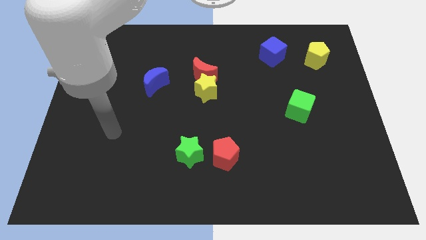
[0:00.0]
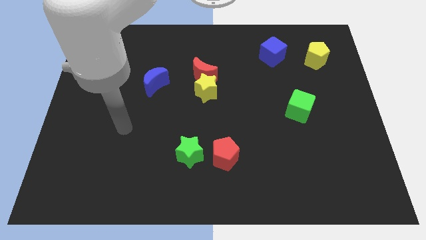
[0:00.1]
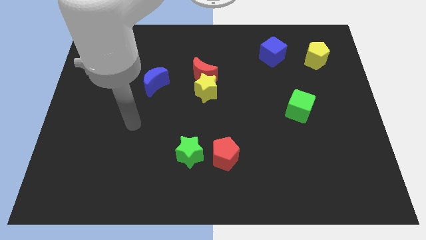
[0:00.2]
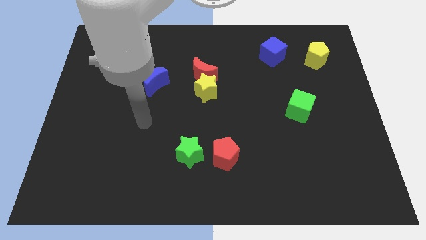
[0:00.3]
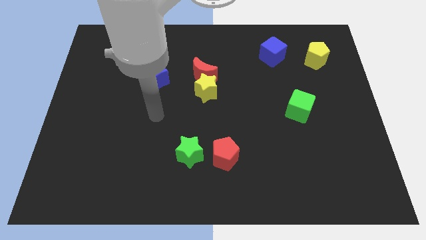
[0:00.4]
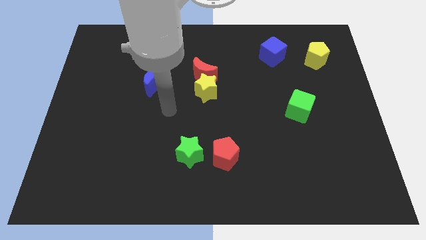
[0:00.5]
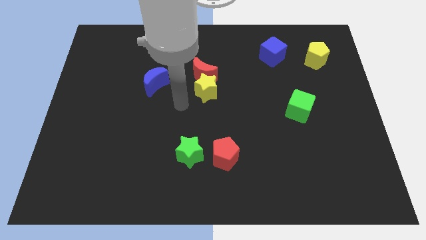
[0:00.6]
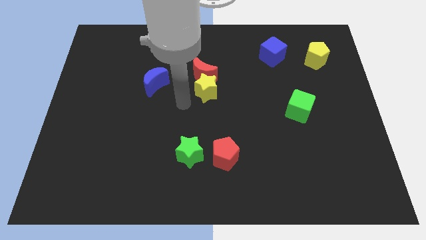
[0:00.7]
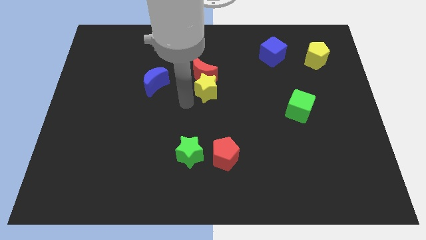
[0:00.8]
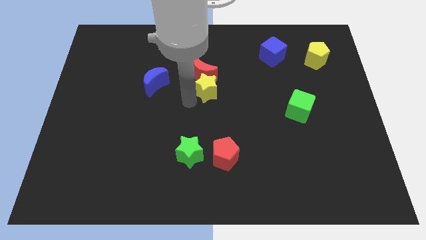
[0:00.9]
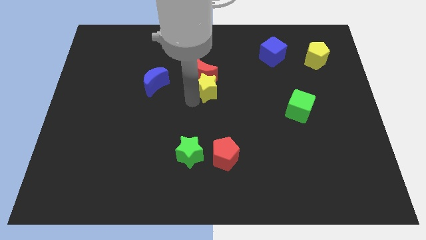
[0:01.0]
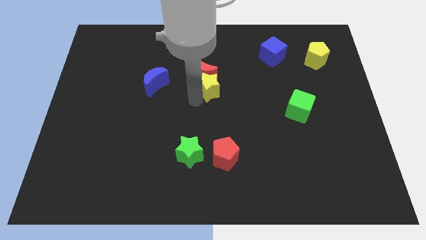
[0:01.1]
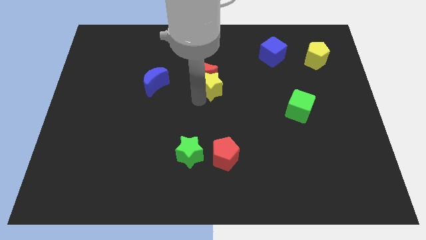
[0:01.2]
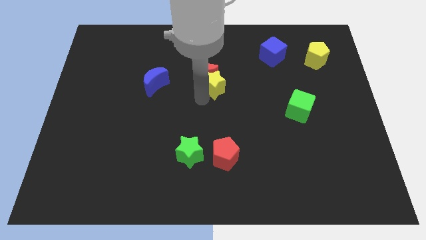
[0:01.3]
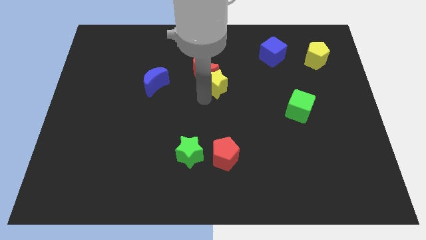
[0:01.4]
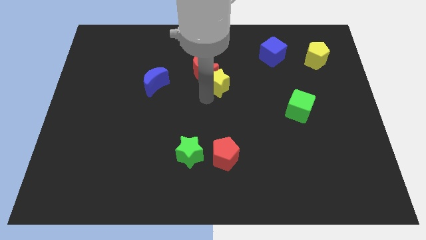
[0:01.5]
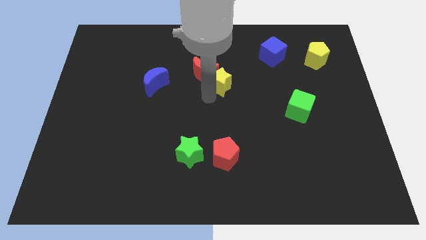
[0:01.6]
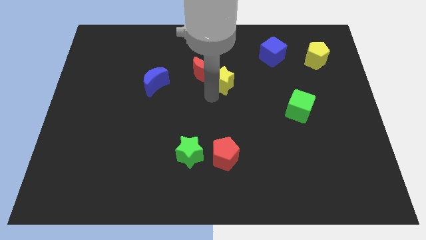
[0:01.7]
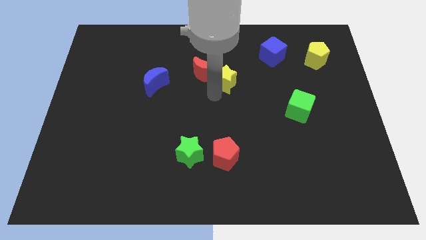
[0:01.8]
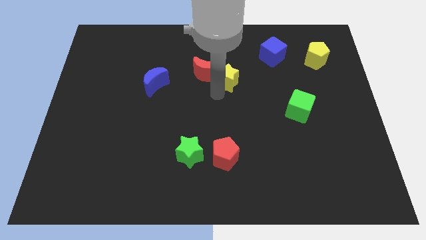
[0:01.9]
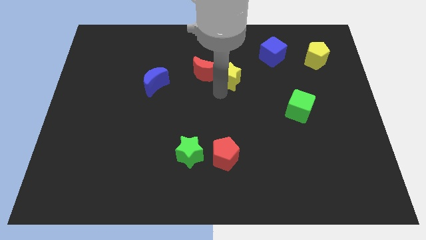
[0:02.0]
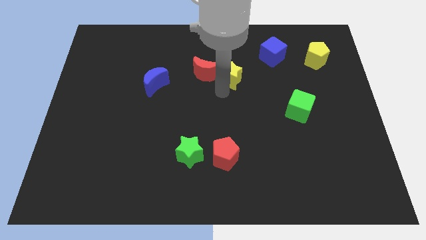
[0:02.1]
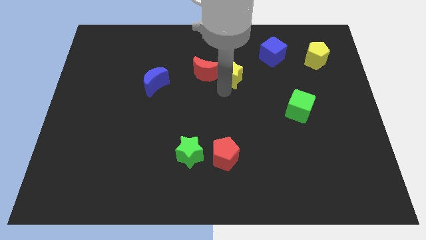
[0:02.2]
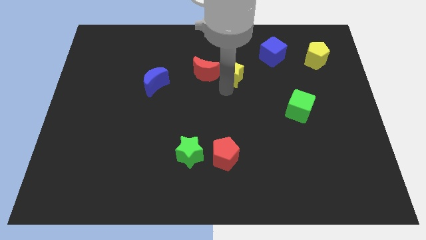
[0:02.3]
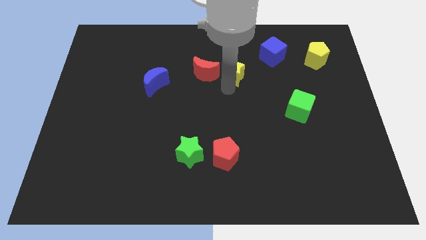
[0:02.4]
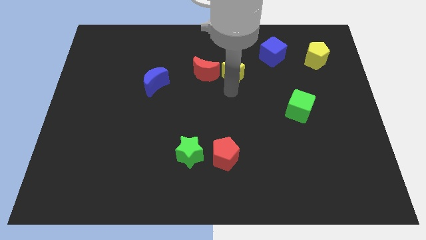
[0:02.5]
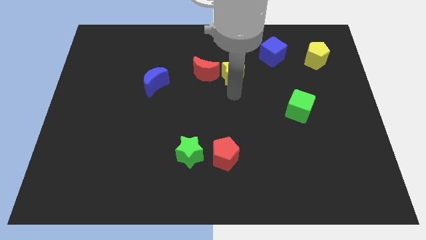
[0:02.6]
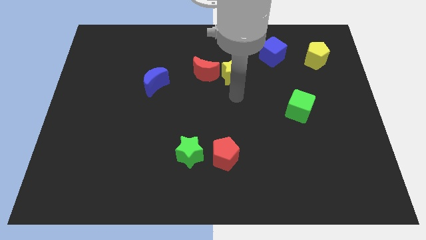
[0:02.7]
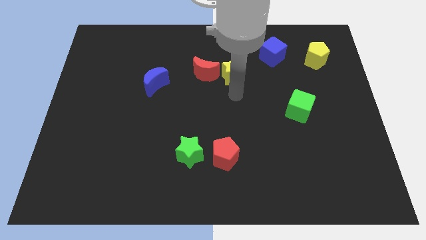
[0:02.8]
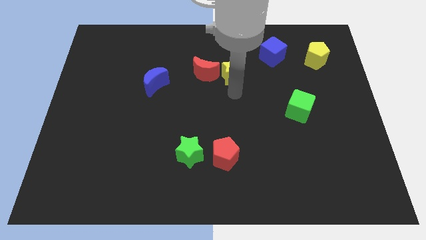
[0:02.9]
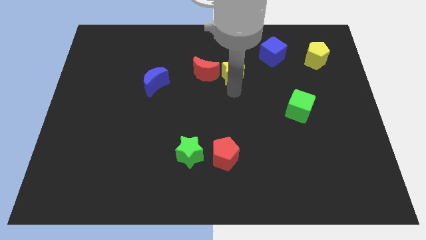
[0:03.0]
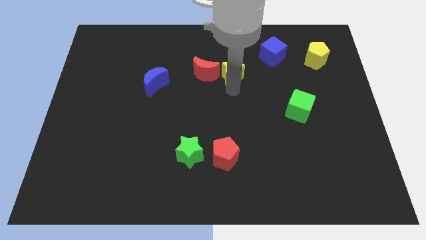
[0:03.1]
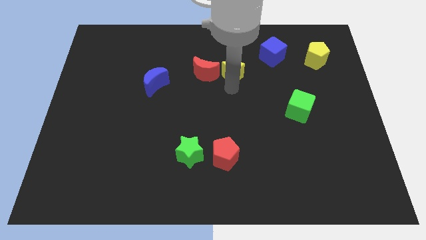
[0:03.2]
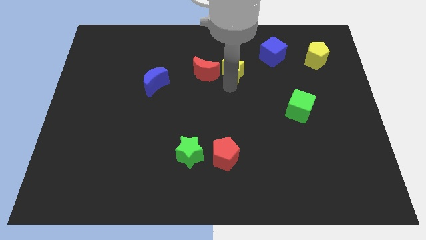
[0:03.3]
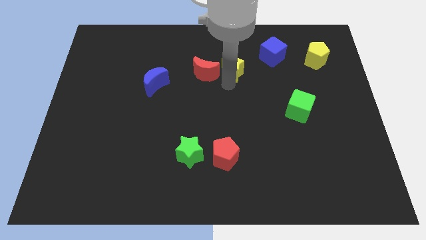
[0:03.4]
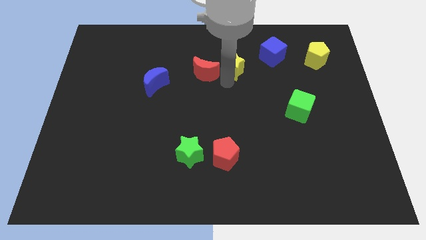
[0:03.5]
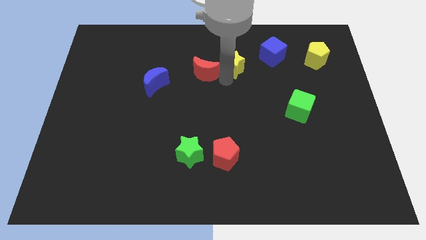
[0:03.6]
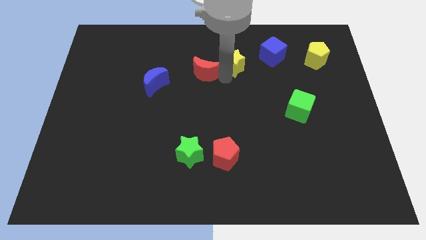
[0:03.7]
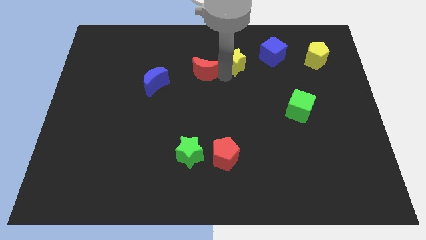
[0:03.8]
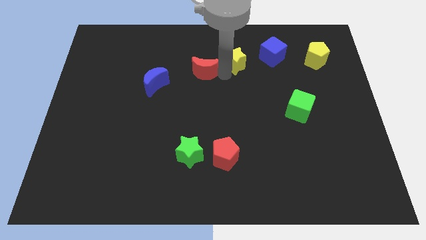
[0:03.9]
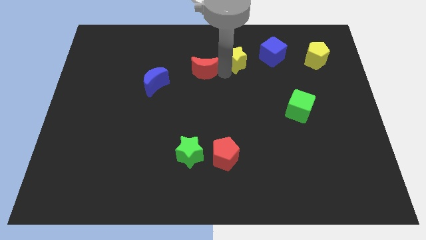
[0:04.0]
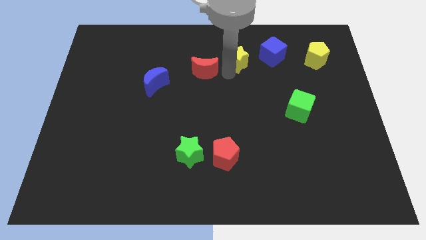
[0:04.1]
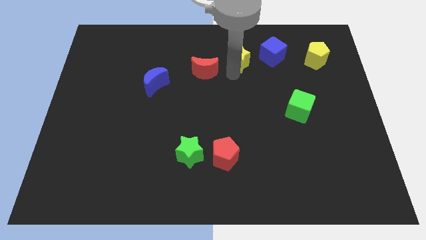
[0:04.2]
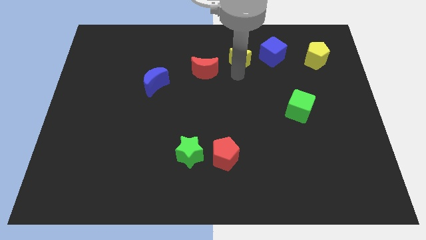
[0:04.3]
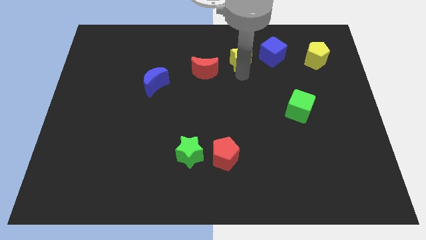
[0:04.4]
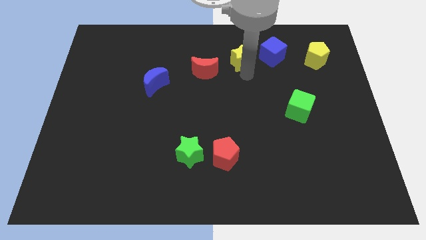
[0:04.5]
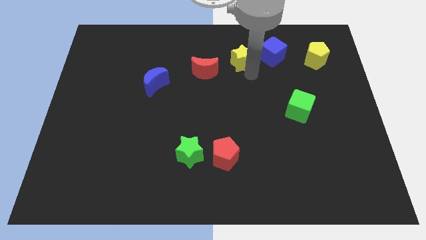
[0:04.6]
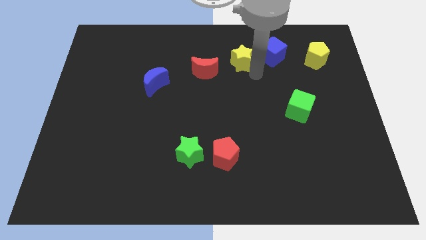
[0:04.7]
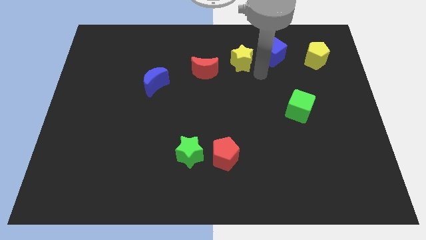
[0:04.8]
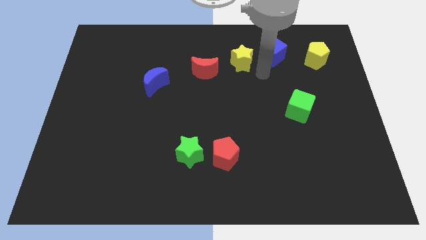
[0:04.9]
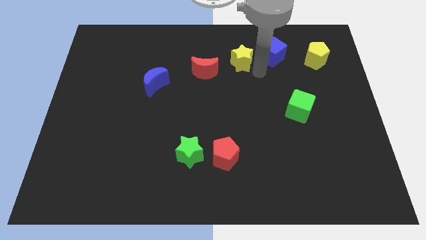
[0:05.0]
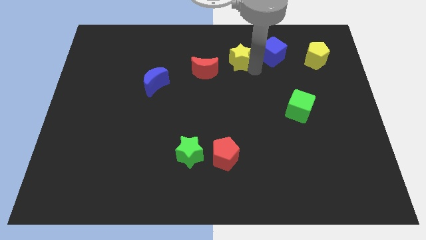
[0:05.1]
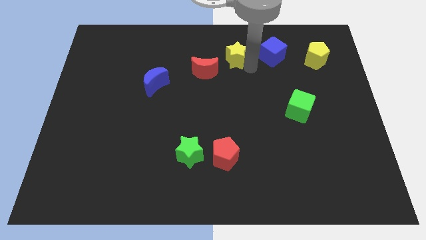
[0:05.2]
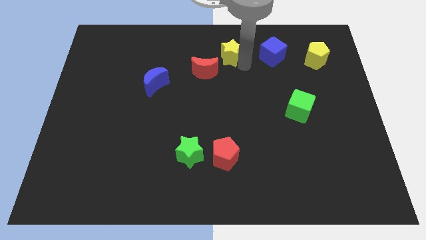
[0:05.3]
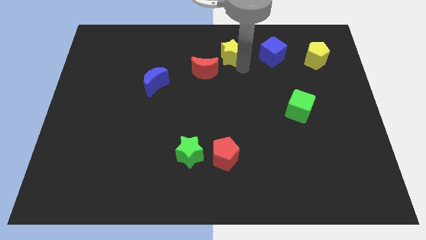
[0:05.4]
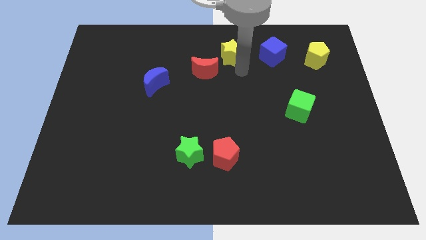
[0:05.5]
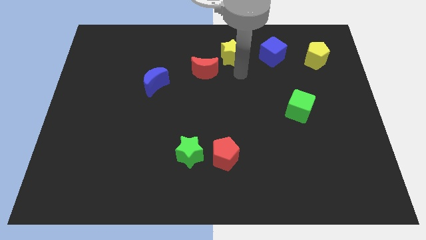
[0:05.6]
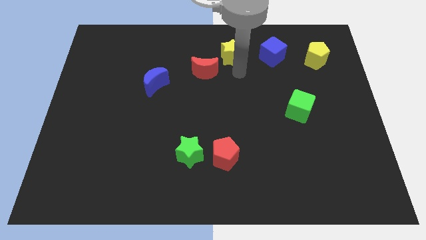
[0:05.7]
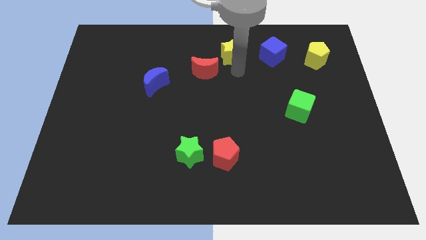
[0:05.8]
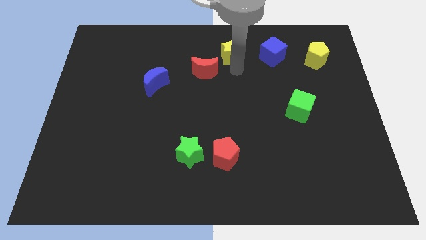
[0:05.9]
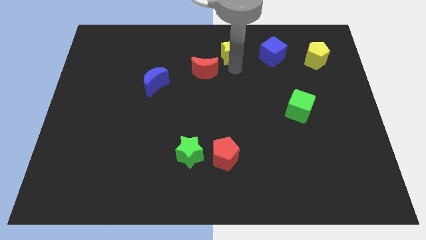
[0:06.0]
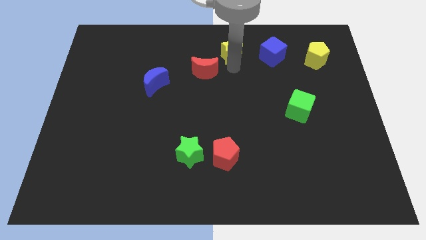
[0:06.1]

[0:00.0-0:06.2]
put the yellow star to the towards your base

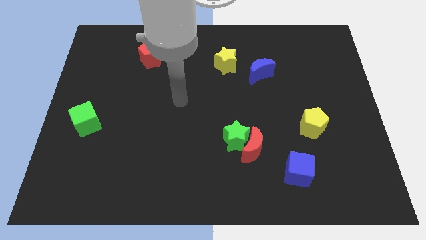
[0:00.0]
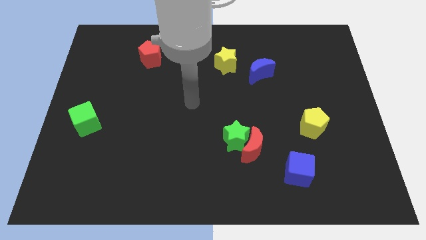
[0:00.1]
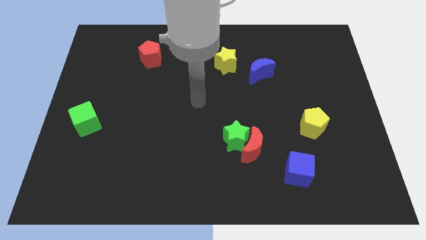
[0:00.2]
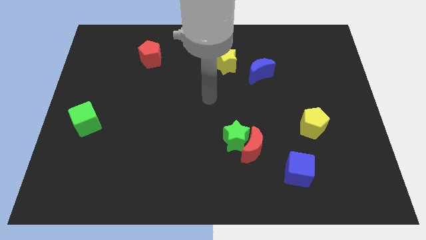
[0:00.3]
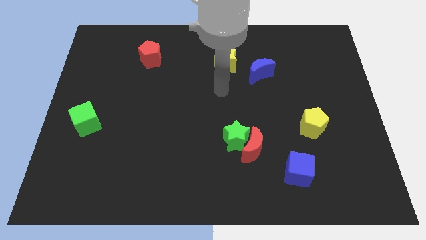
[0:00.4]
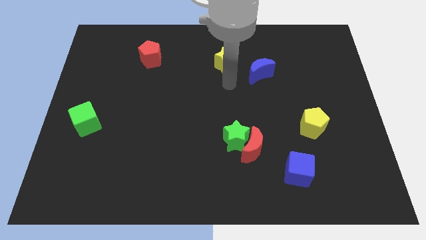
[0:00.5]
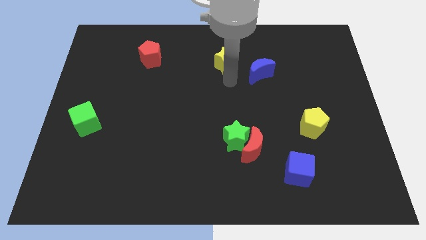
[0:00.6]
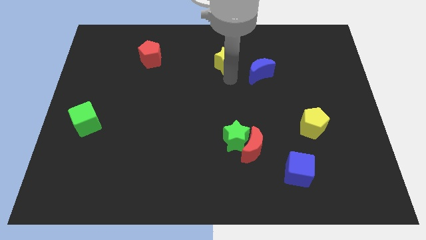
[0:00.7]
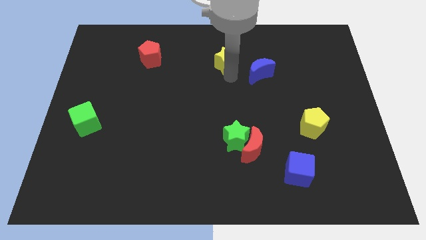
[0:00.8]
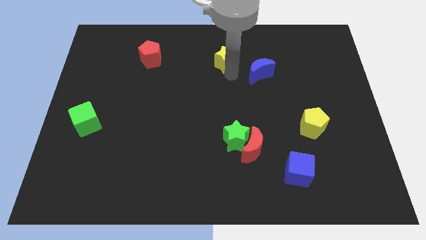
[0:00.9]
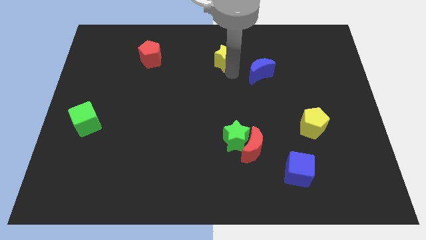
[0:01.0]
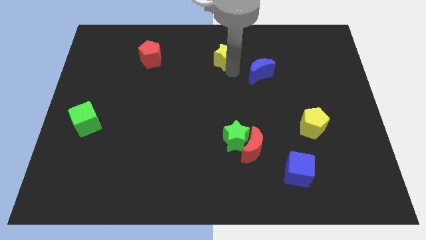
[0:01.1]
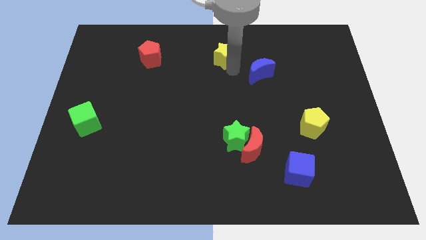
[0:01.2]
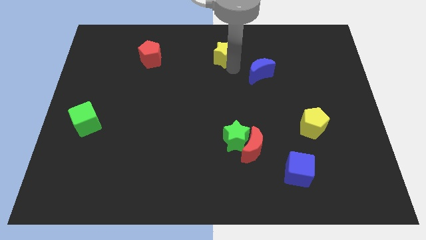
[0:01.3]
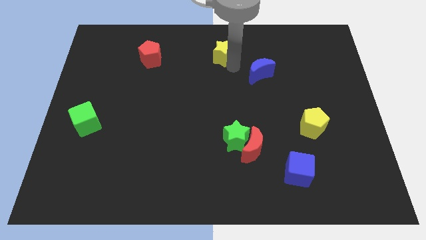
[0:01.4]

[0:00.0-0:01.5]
push the yellow star to the towards your base
